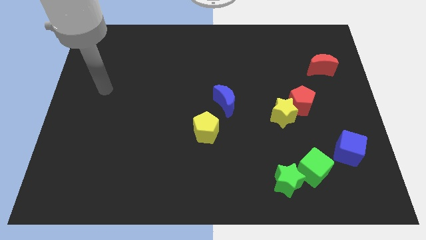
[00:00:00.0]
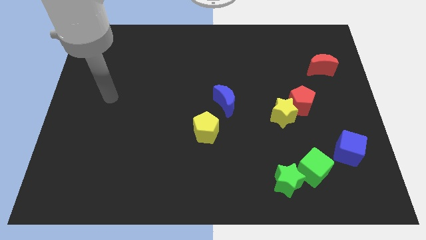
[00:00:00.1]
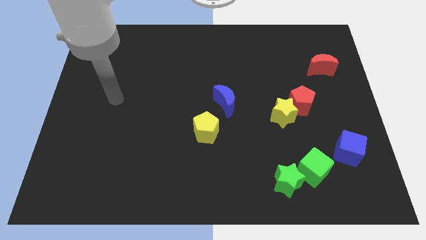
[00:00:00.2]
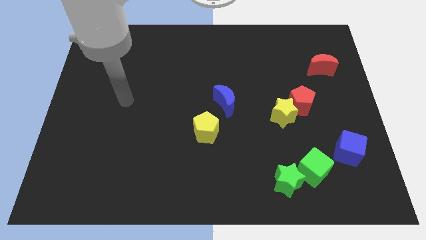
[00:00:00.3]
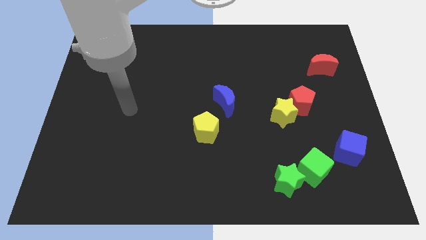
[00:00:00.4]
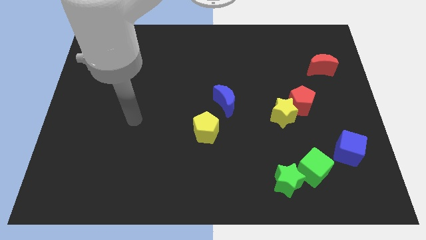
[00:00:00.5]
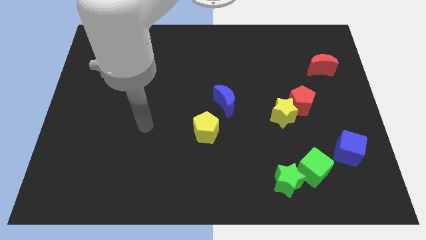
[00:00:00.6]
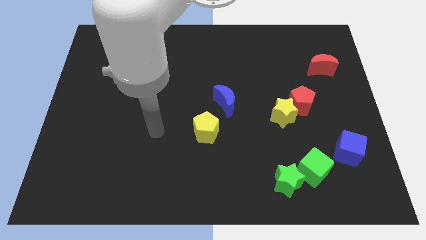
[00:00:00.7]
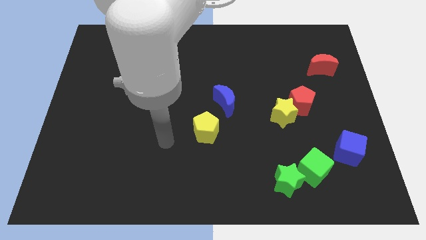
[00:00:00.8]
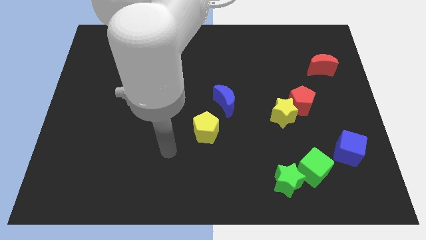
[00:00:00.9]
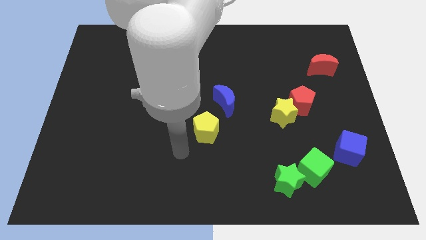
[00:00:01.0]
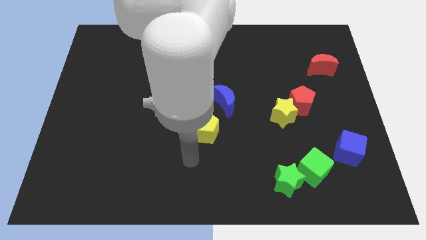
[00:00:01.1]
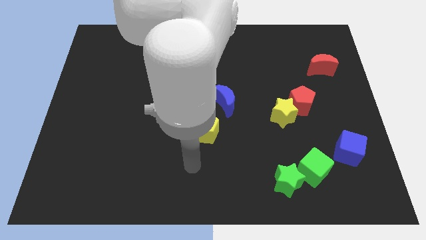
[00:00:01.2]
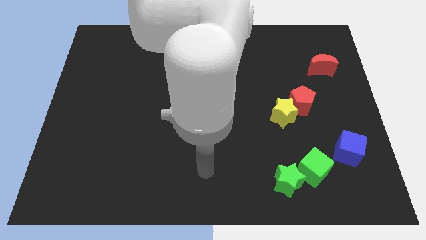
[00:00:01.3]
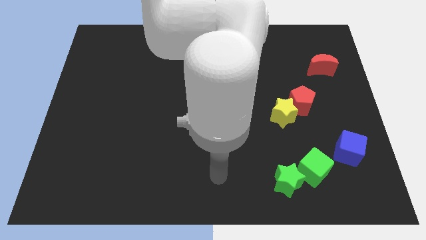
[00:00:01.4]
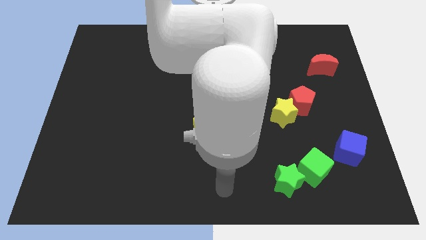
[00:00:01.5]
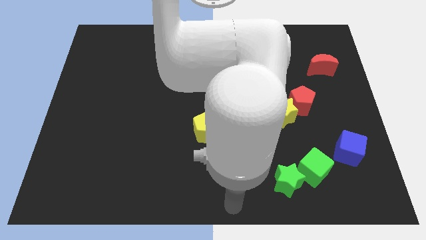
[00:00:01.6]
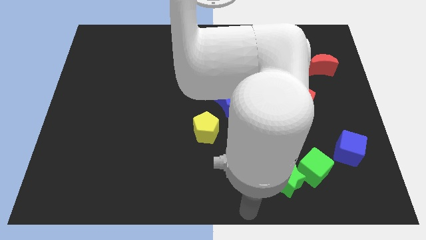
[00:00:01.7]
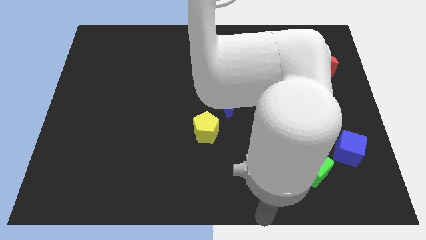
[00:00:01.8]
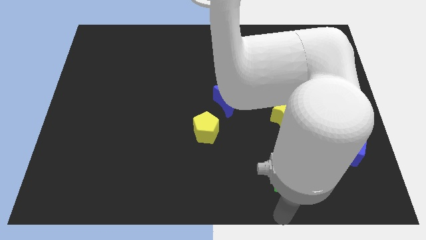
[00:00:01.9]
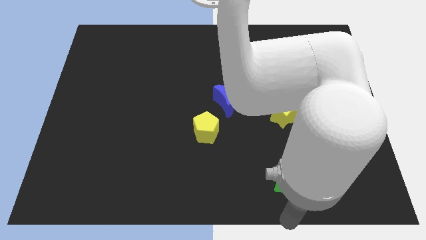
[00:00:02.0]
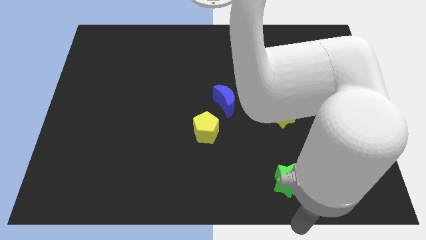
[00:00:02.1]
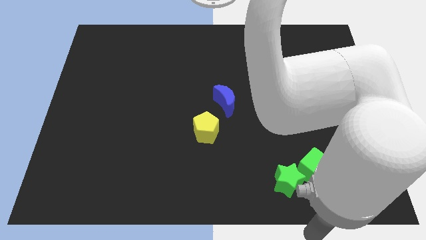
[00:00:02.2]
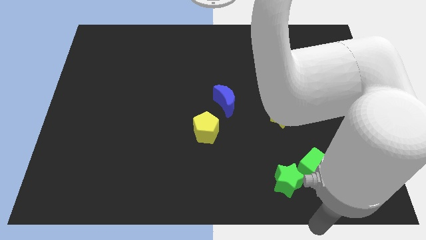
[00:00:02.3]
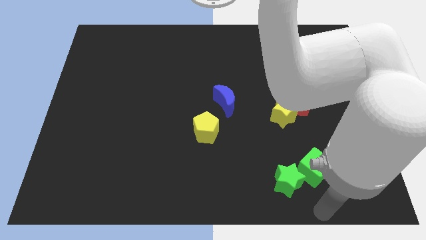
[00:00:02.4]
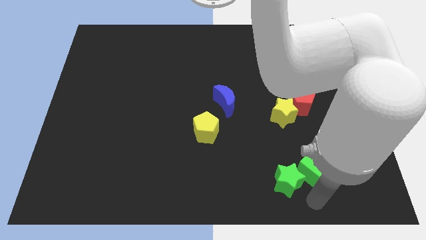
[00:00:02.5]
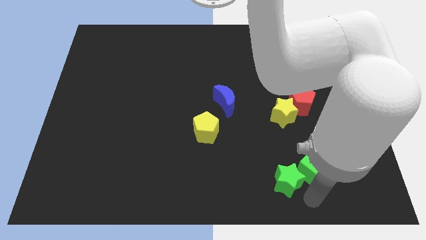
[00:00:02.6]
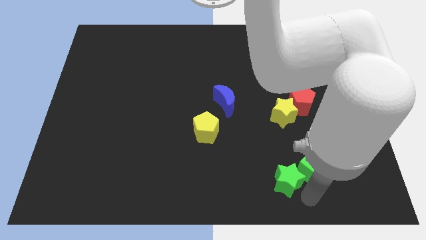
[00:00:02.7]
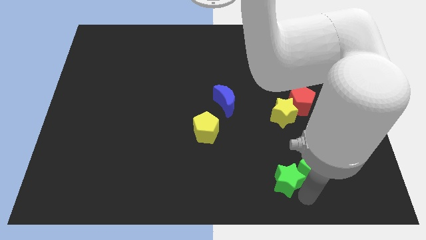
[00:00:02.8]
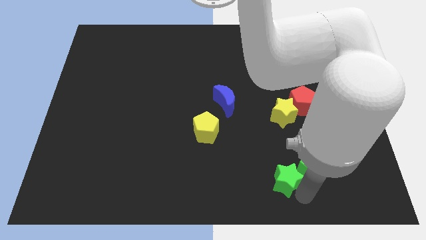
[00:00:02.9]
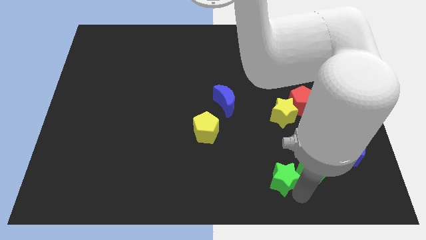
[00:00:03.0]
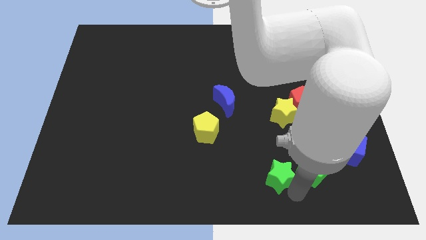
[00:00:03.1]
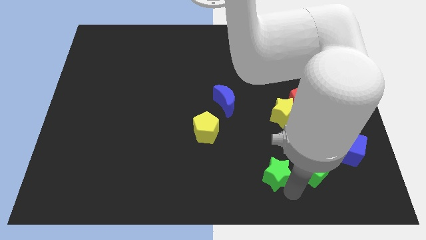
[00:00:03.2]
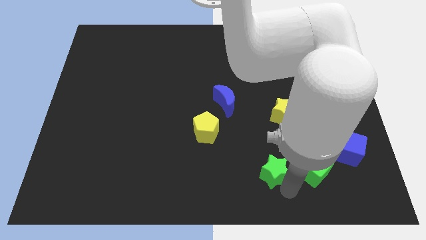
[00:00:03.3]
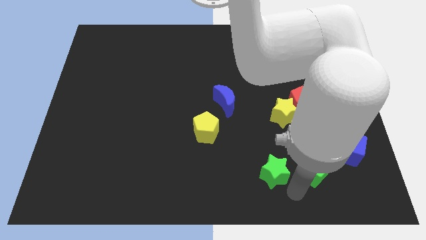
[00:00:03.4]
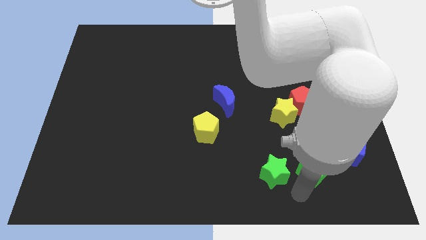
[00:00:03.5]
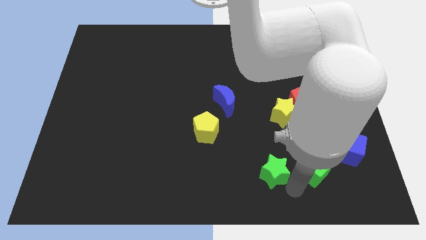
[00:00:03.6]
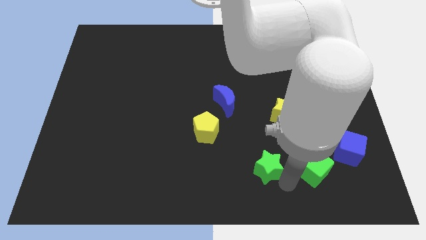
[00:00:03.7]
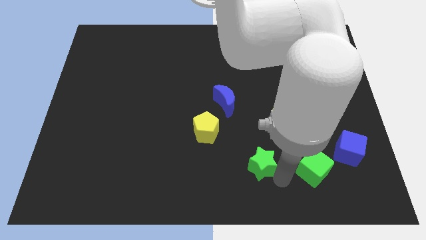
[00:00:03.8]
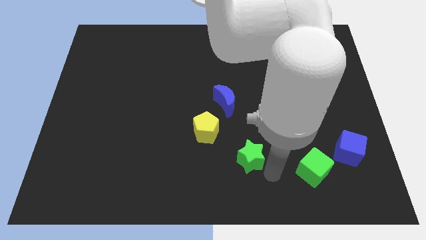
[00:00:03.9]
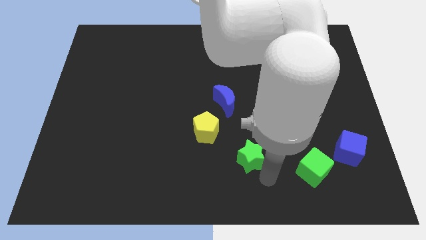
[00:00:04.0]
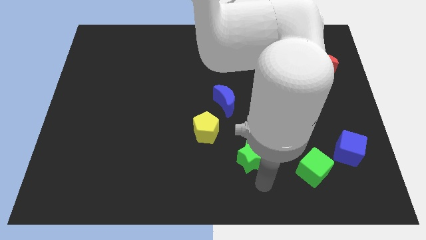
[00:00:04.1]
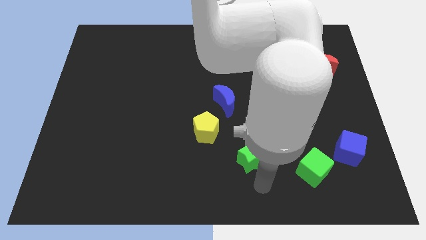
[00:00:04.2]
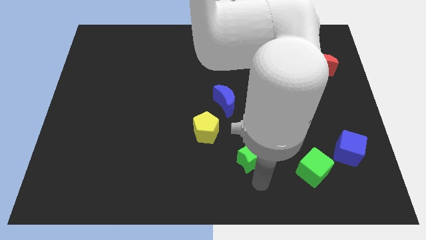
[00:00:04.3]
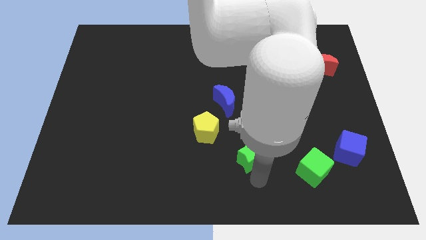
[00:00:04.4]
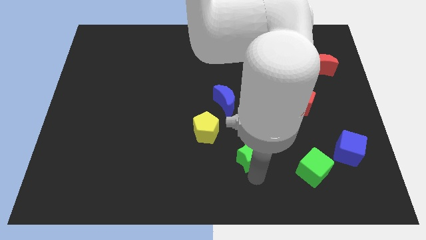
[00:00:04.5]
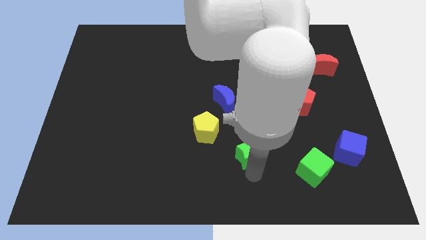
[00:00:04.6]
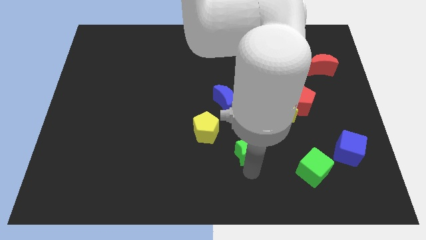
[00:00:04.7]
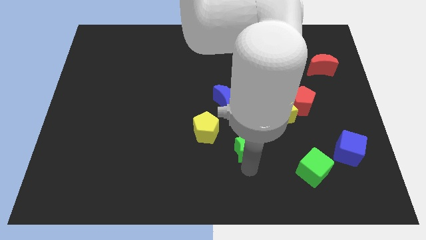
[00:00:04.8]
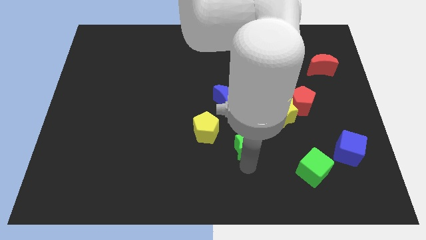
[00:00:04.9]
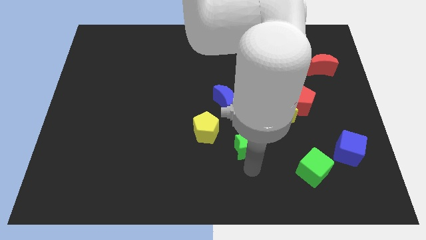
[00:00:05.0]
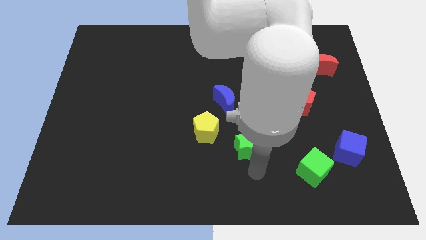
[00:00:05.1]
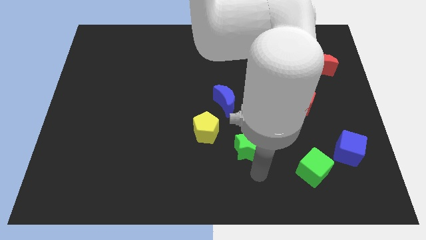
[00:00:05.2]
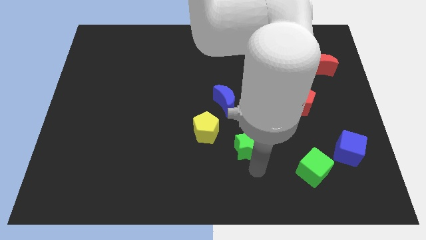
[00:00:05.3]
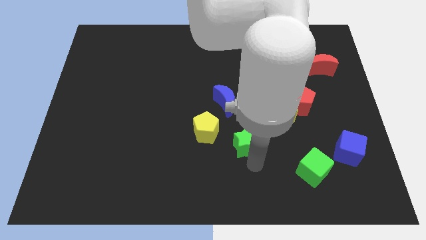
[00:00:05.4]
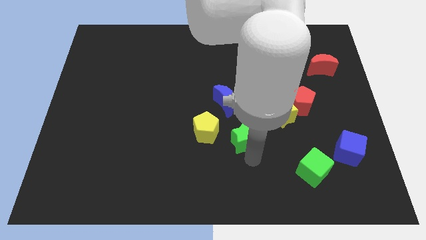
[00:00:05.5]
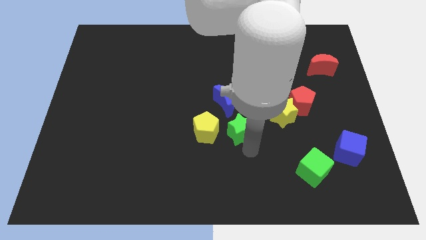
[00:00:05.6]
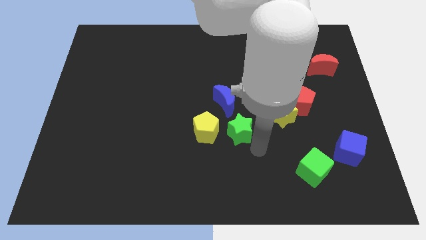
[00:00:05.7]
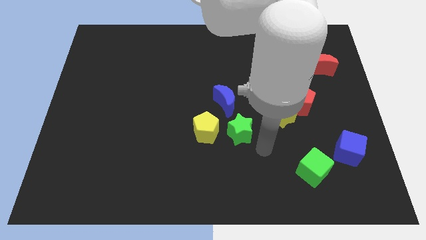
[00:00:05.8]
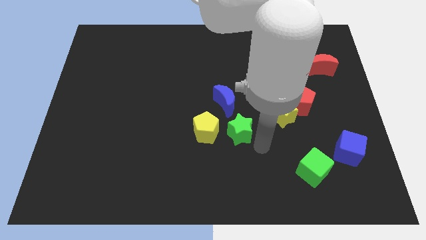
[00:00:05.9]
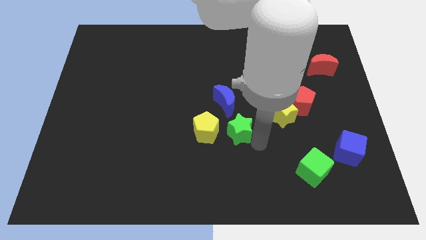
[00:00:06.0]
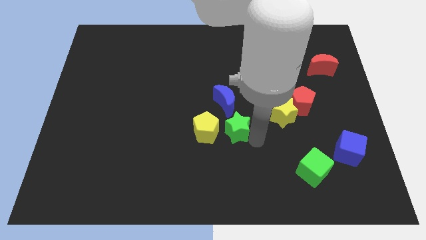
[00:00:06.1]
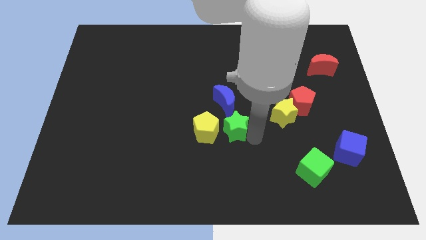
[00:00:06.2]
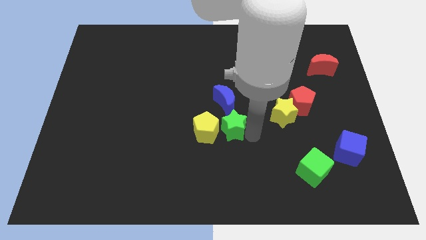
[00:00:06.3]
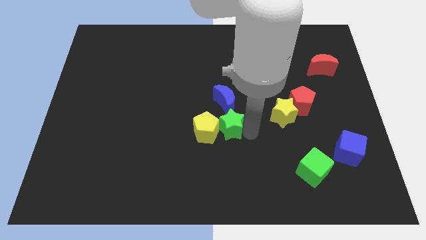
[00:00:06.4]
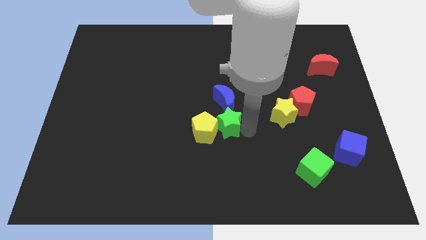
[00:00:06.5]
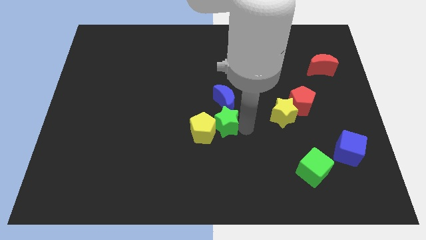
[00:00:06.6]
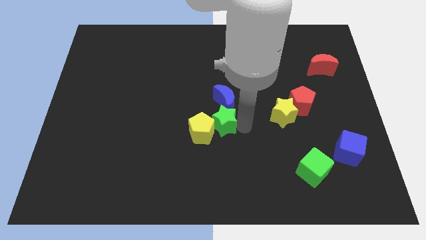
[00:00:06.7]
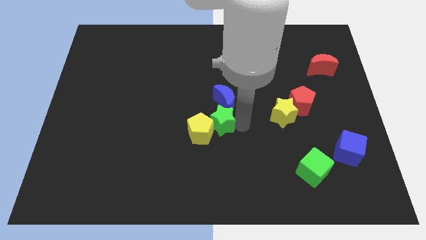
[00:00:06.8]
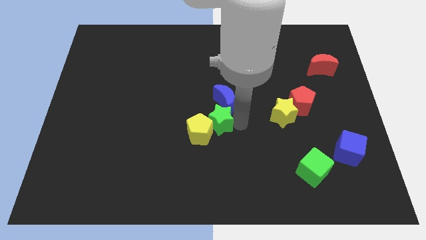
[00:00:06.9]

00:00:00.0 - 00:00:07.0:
push the green star diagonally up and to the left

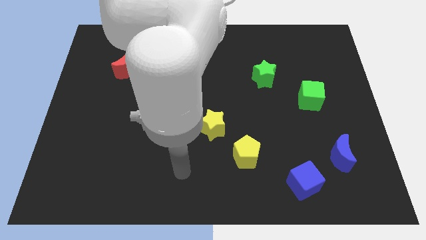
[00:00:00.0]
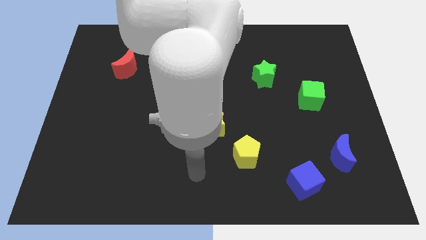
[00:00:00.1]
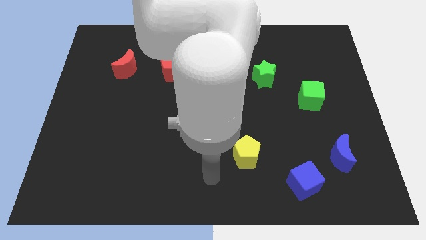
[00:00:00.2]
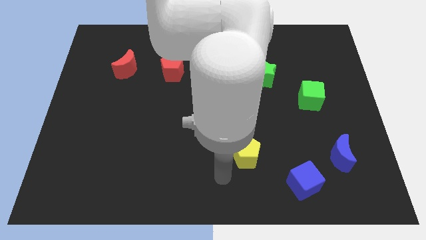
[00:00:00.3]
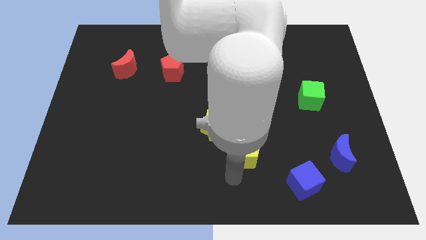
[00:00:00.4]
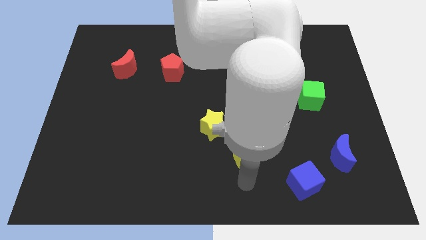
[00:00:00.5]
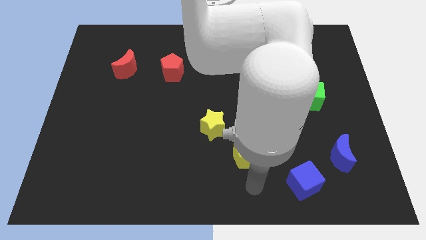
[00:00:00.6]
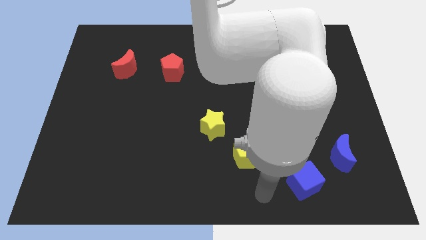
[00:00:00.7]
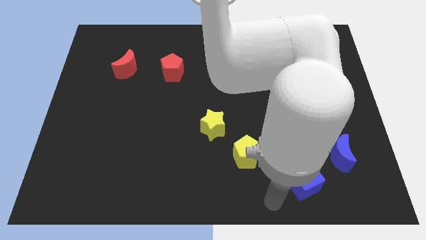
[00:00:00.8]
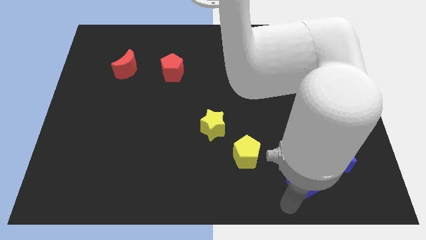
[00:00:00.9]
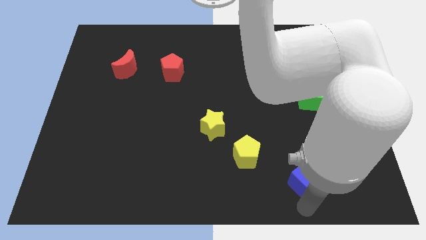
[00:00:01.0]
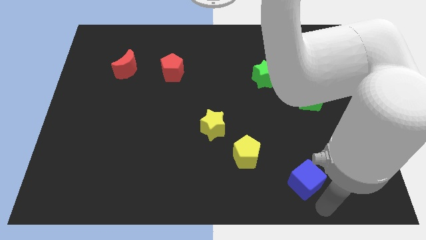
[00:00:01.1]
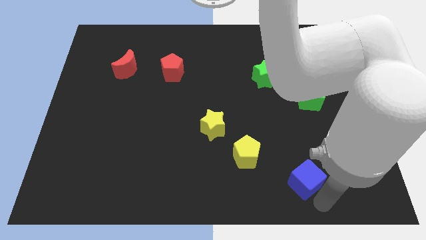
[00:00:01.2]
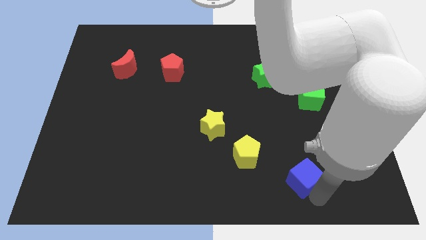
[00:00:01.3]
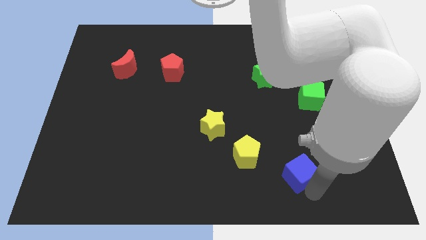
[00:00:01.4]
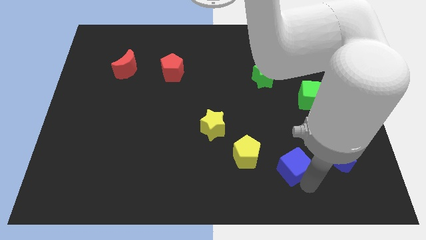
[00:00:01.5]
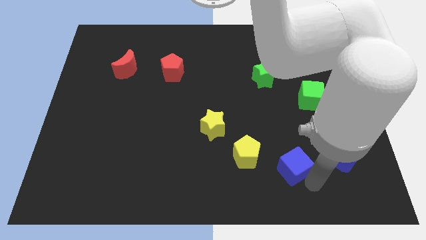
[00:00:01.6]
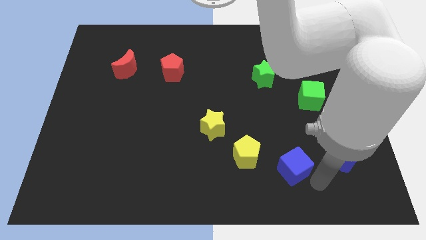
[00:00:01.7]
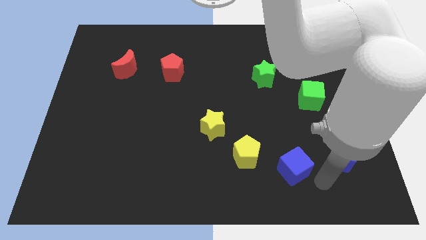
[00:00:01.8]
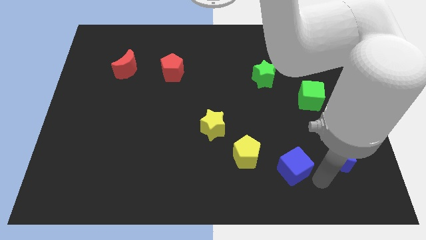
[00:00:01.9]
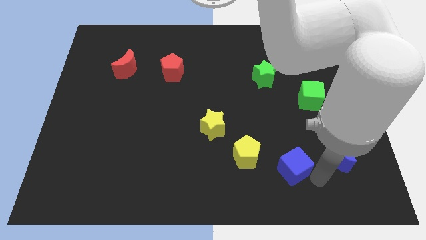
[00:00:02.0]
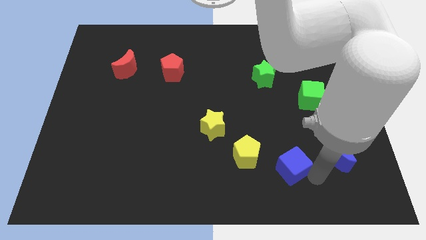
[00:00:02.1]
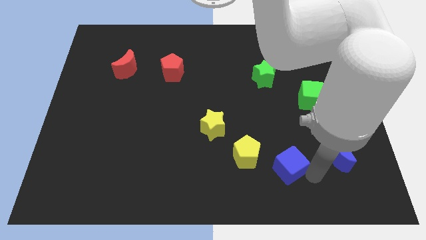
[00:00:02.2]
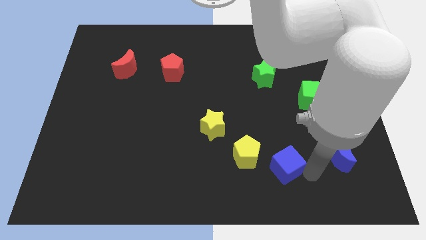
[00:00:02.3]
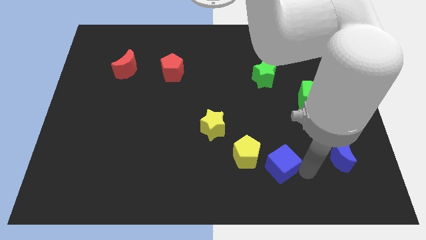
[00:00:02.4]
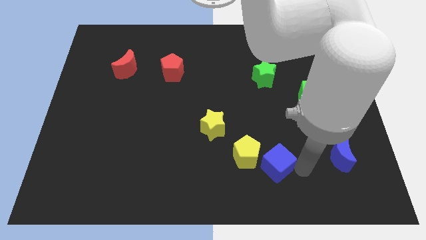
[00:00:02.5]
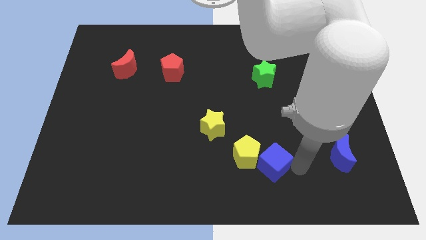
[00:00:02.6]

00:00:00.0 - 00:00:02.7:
push the blue cube slightly upwards and left
